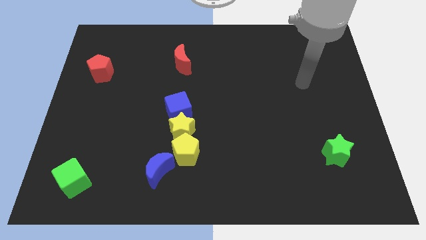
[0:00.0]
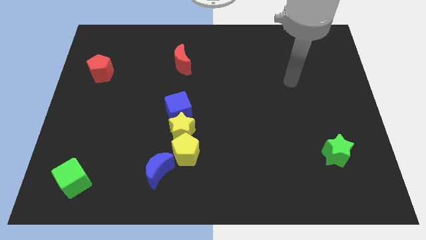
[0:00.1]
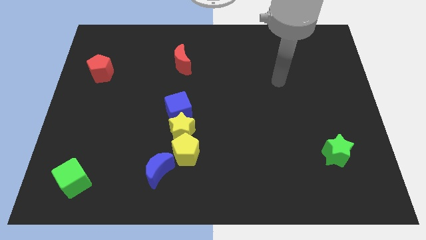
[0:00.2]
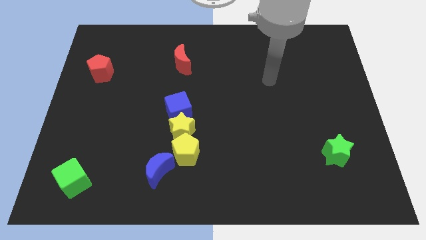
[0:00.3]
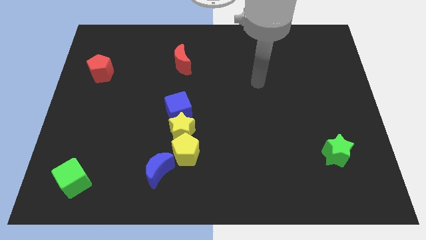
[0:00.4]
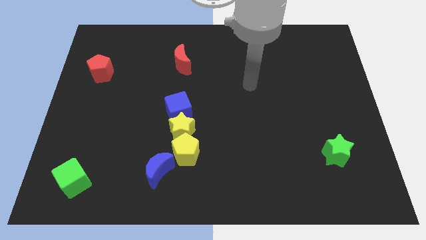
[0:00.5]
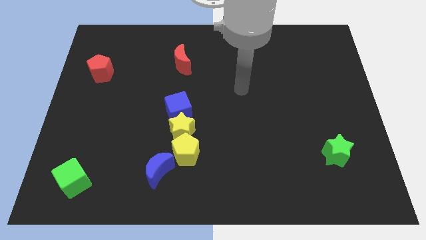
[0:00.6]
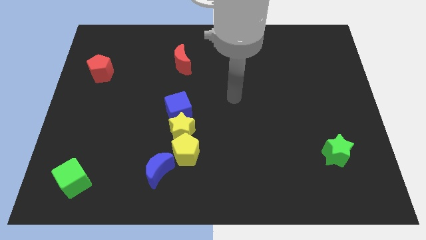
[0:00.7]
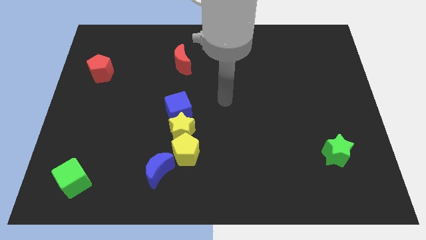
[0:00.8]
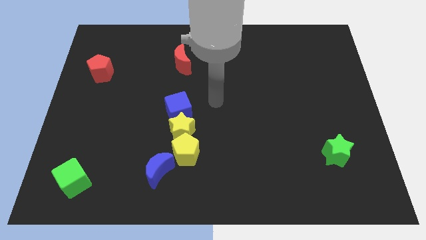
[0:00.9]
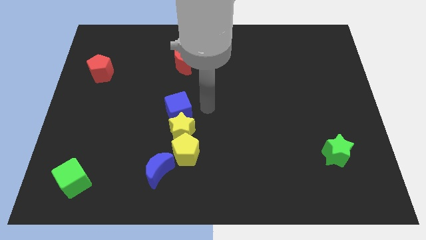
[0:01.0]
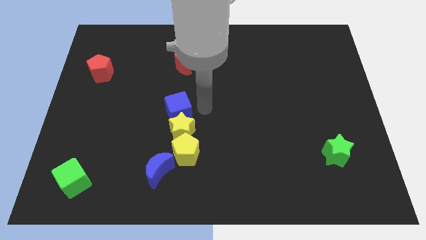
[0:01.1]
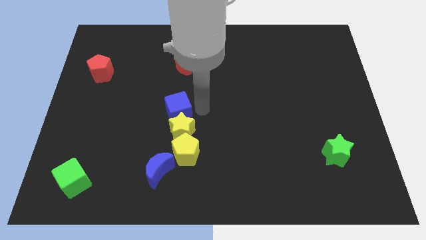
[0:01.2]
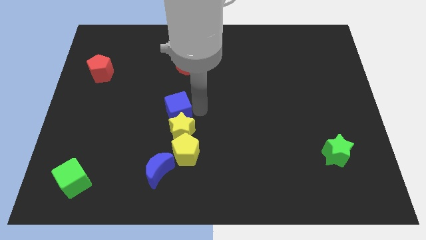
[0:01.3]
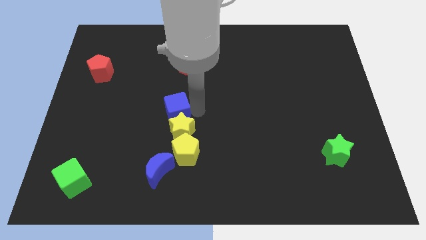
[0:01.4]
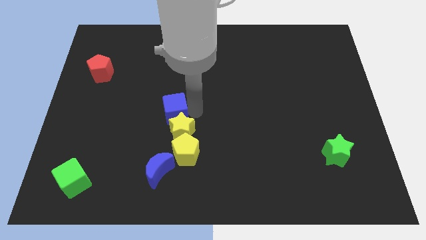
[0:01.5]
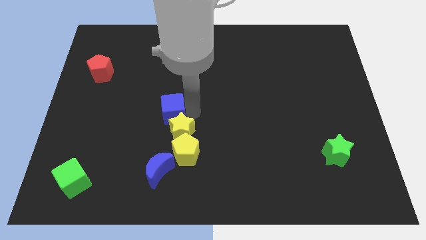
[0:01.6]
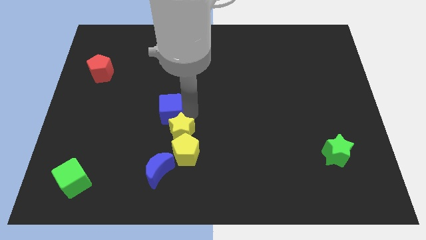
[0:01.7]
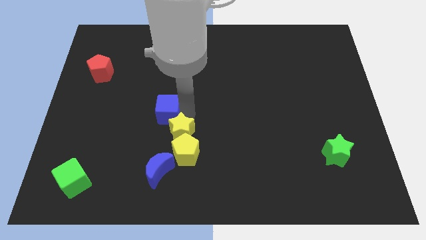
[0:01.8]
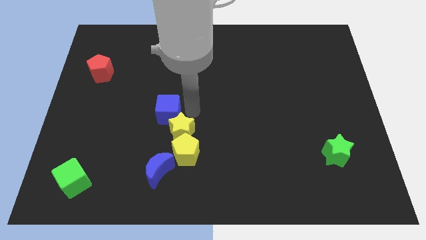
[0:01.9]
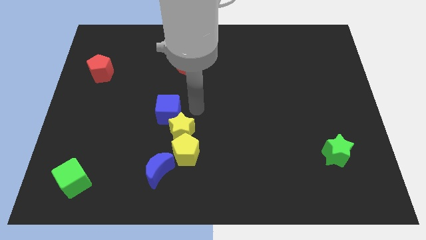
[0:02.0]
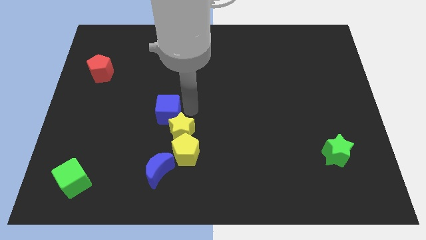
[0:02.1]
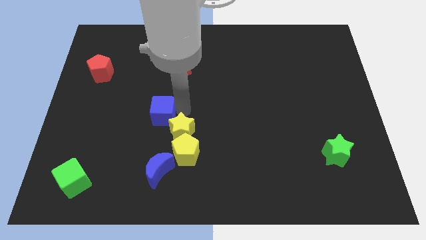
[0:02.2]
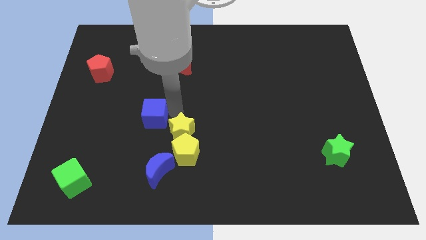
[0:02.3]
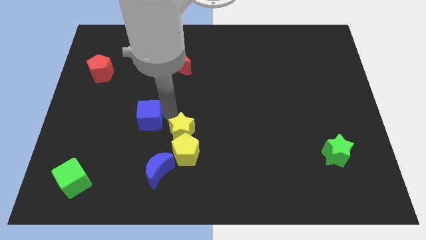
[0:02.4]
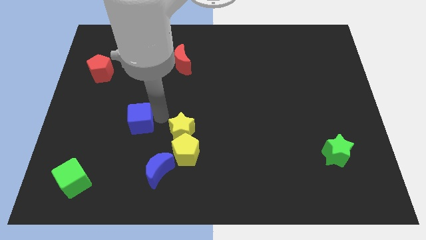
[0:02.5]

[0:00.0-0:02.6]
slightly move the blue cube left

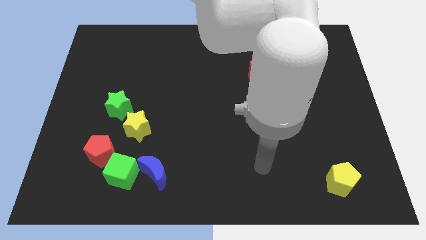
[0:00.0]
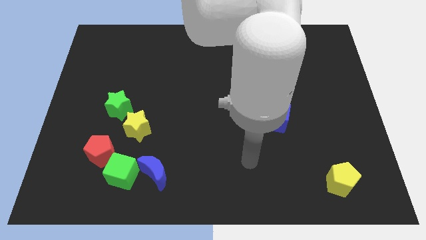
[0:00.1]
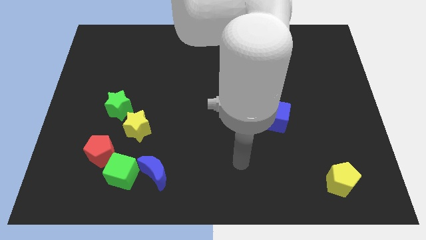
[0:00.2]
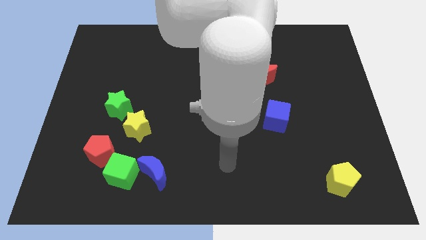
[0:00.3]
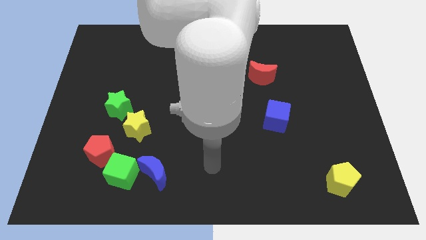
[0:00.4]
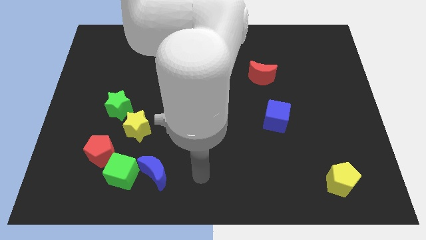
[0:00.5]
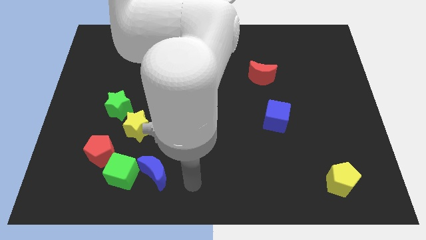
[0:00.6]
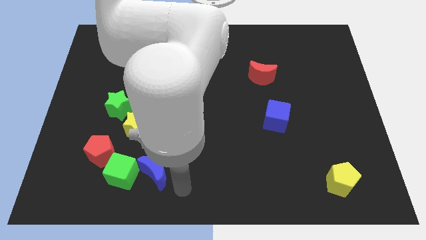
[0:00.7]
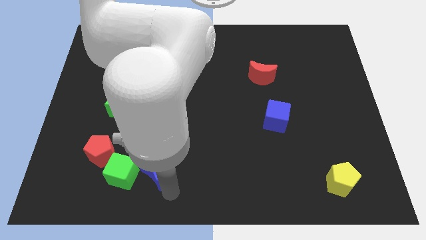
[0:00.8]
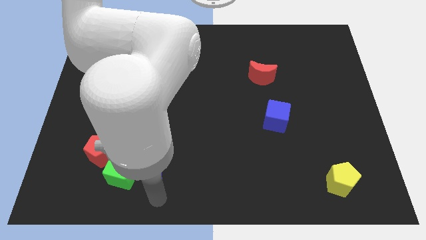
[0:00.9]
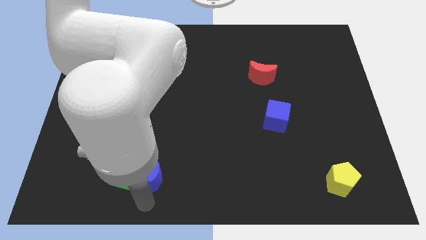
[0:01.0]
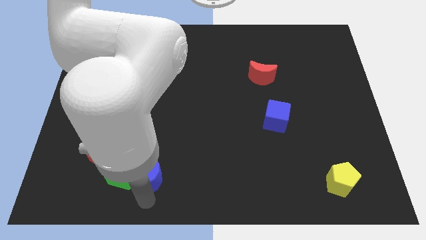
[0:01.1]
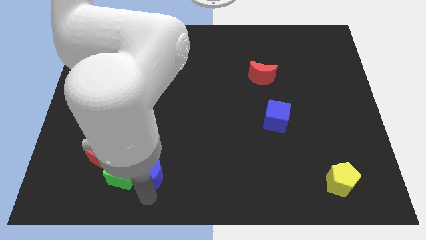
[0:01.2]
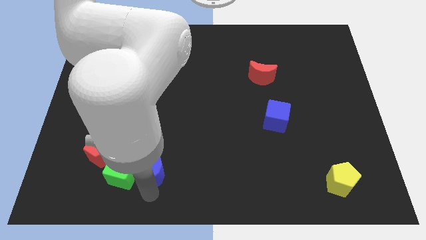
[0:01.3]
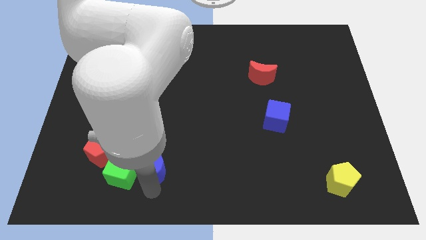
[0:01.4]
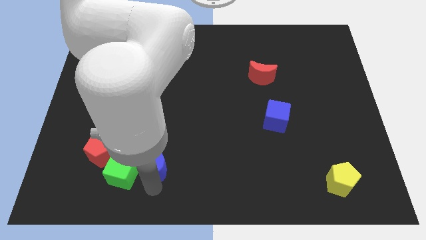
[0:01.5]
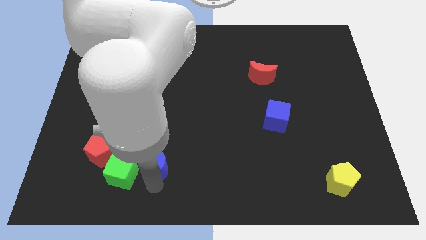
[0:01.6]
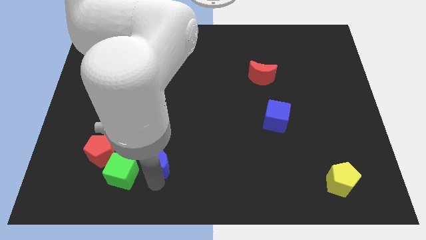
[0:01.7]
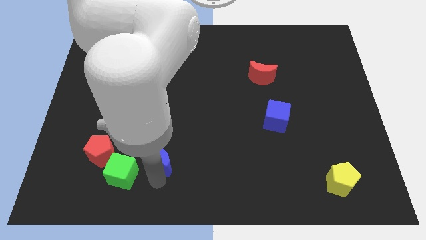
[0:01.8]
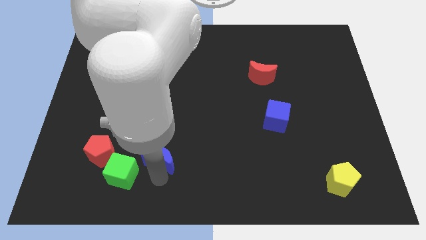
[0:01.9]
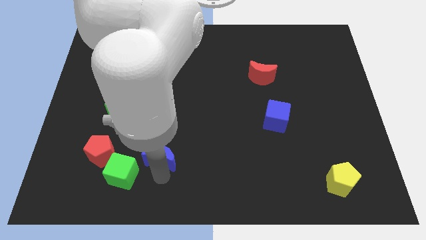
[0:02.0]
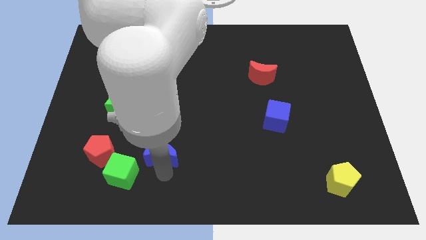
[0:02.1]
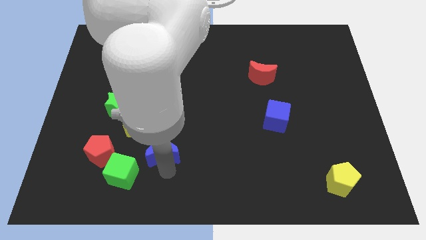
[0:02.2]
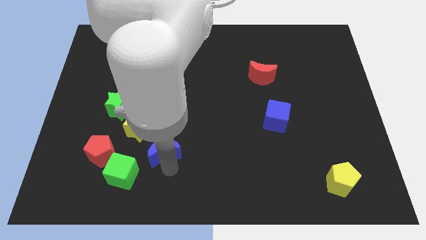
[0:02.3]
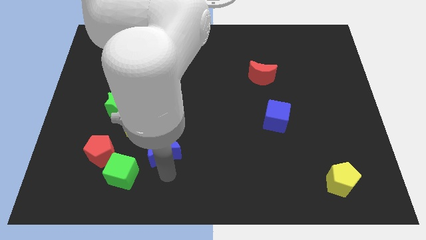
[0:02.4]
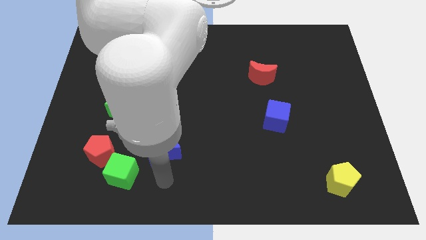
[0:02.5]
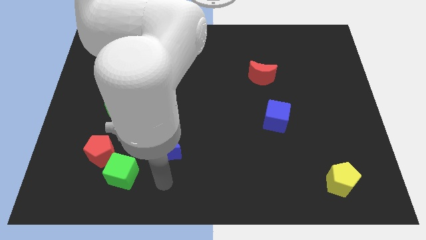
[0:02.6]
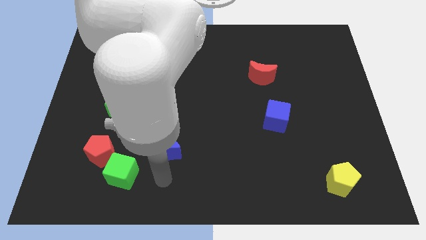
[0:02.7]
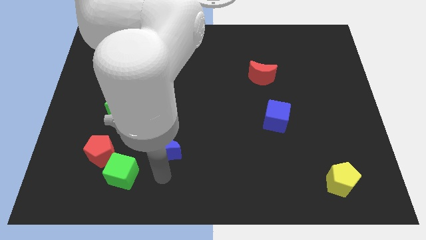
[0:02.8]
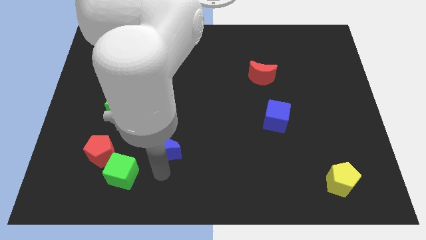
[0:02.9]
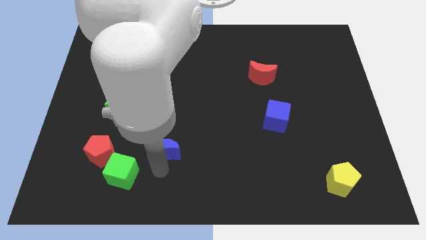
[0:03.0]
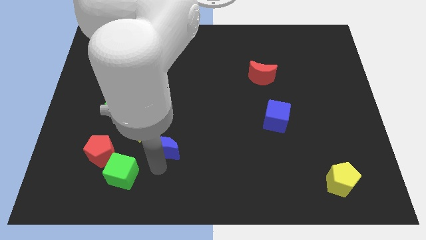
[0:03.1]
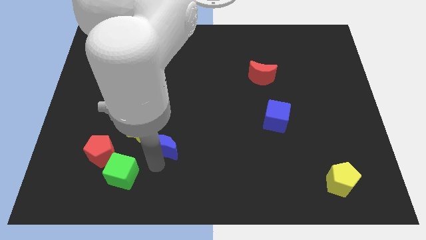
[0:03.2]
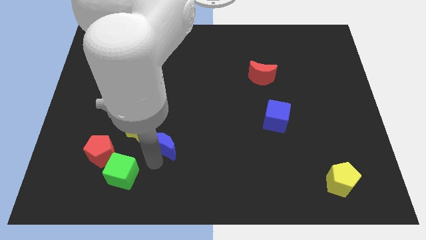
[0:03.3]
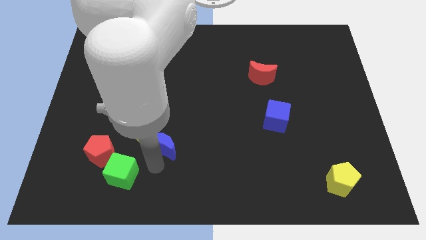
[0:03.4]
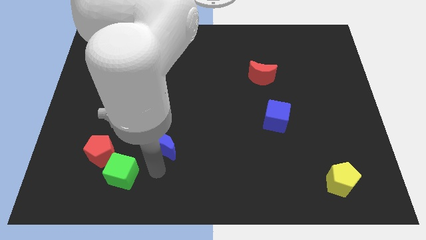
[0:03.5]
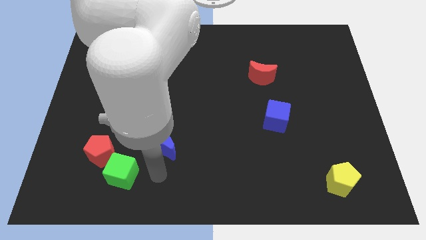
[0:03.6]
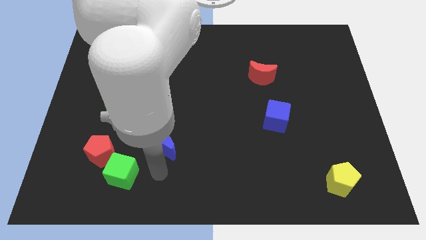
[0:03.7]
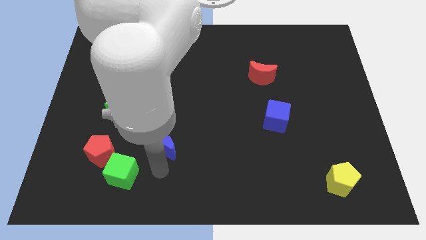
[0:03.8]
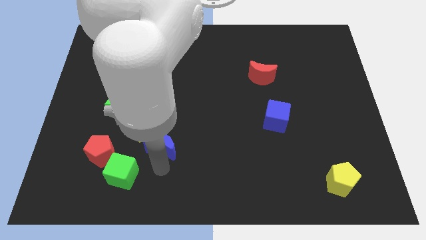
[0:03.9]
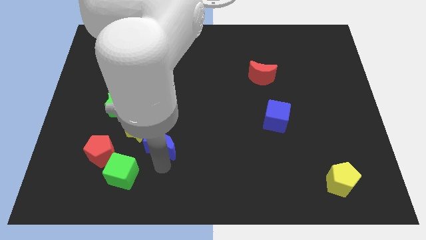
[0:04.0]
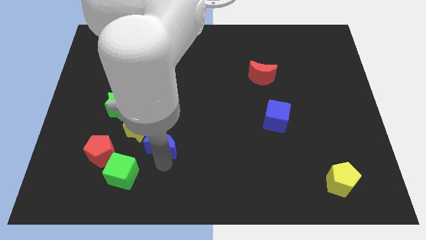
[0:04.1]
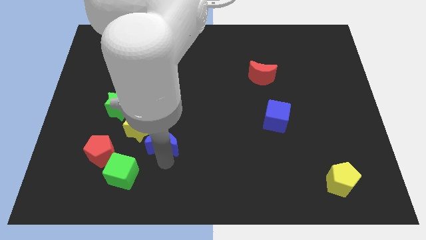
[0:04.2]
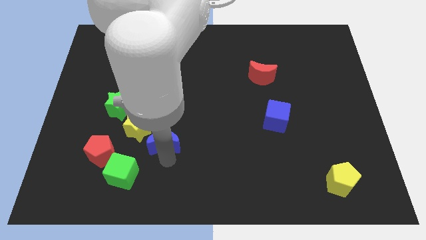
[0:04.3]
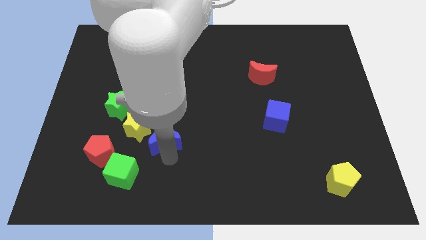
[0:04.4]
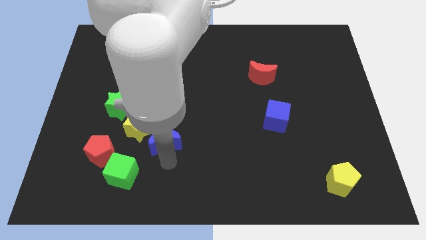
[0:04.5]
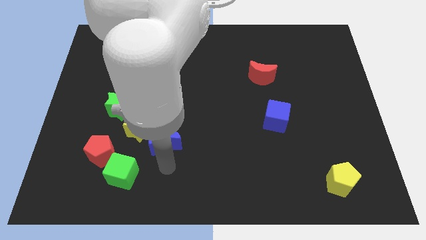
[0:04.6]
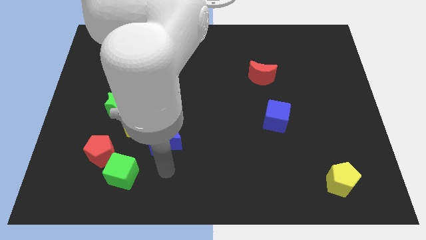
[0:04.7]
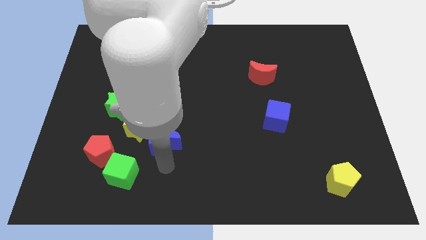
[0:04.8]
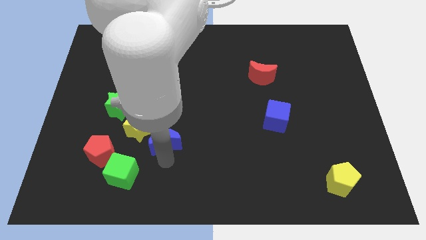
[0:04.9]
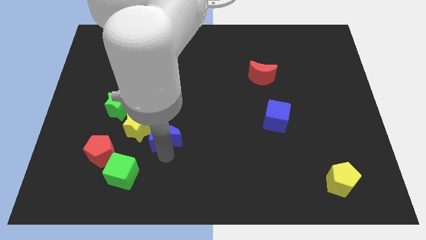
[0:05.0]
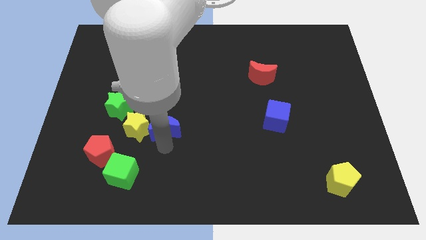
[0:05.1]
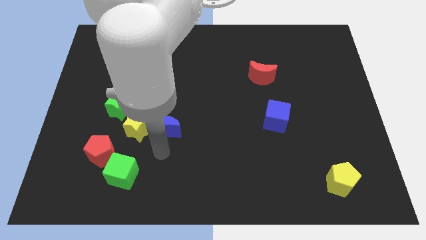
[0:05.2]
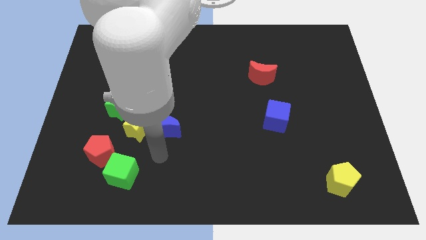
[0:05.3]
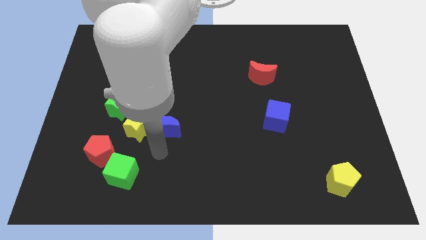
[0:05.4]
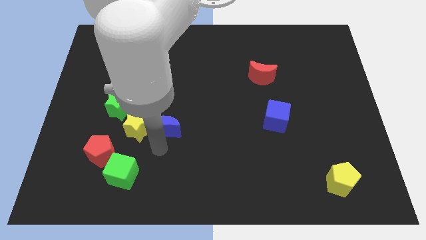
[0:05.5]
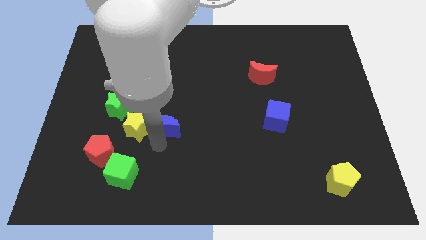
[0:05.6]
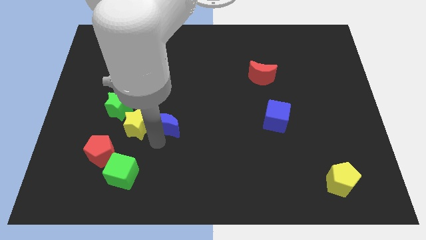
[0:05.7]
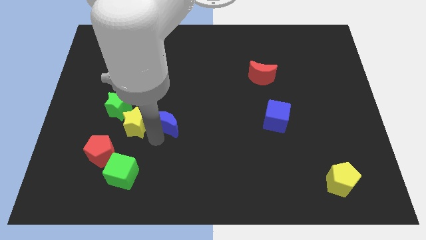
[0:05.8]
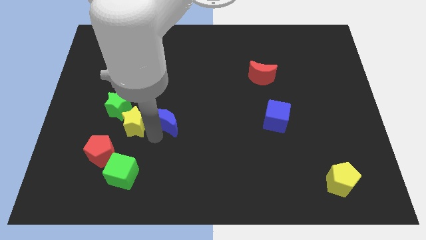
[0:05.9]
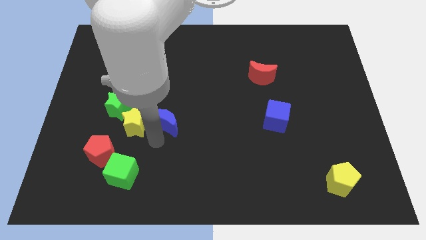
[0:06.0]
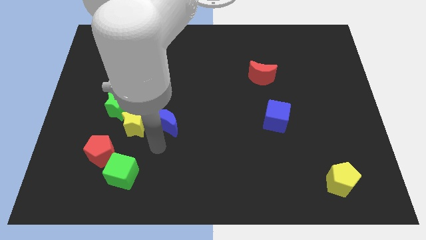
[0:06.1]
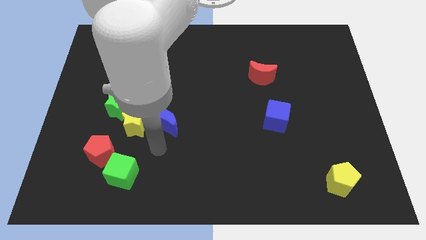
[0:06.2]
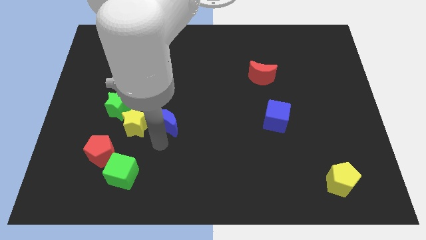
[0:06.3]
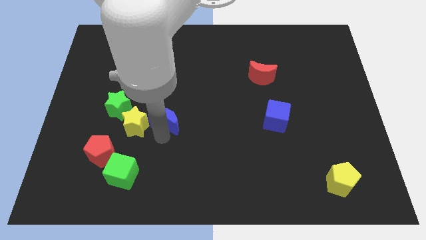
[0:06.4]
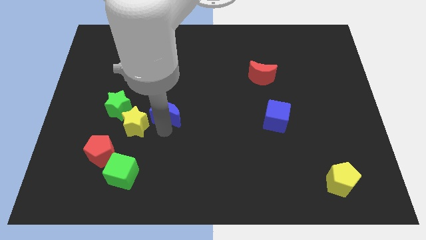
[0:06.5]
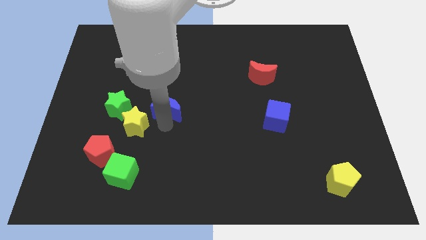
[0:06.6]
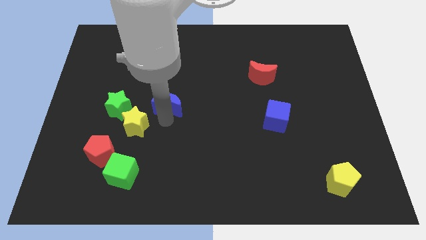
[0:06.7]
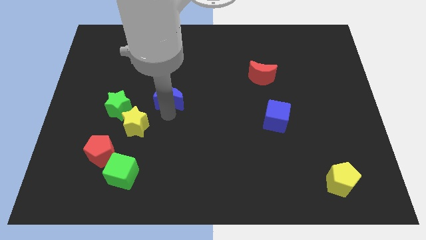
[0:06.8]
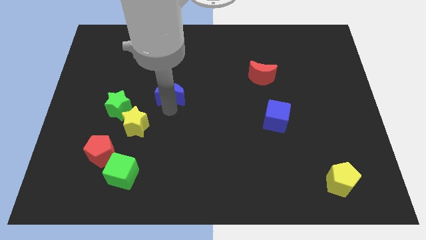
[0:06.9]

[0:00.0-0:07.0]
push the blue moon up
